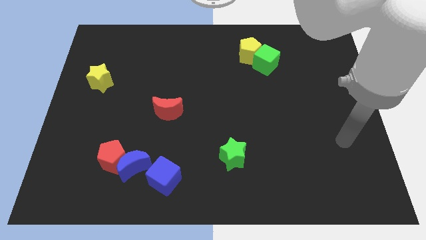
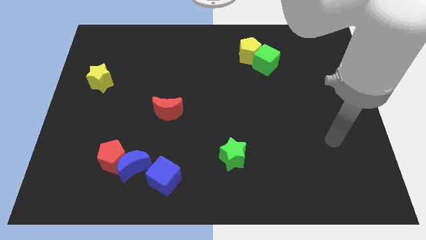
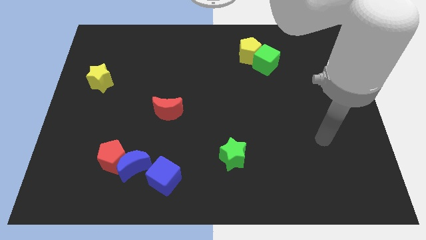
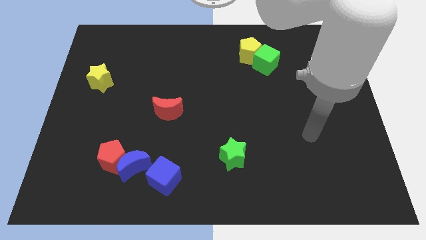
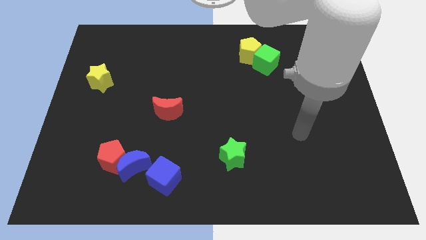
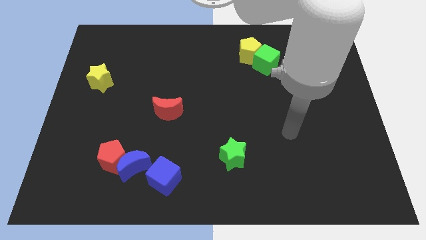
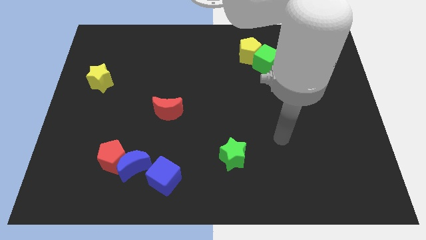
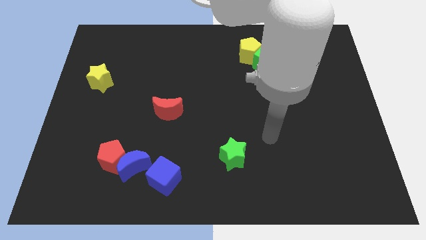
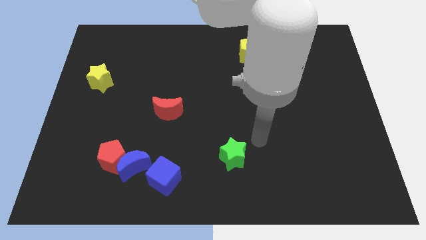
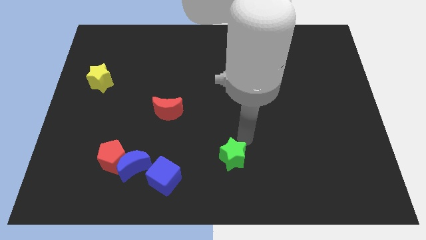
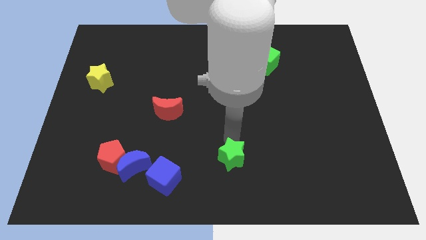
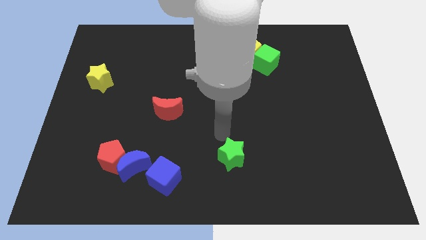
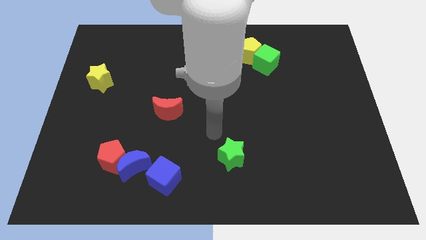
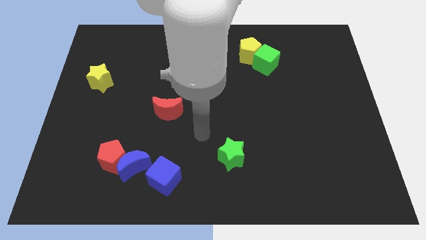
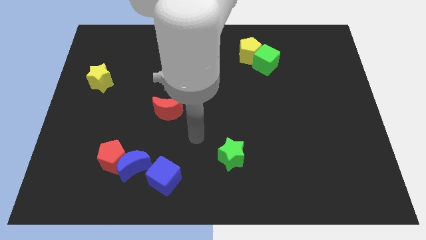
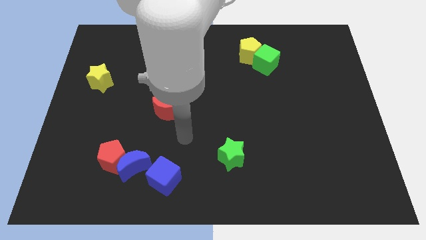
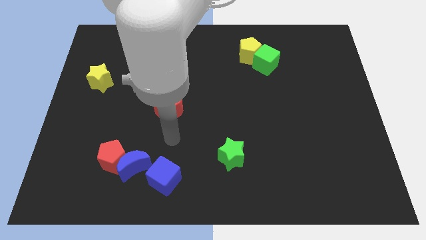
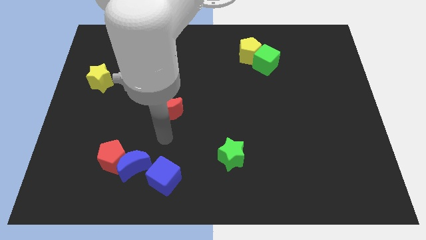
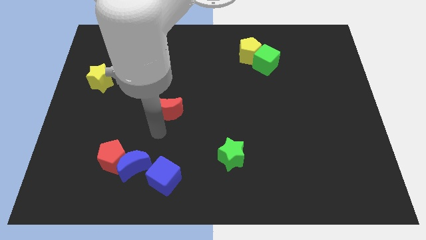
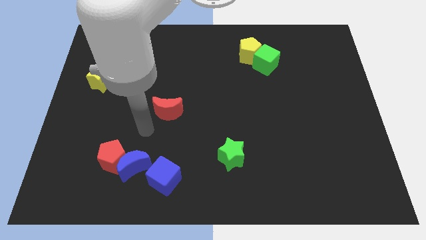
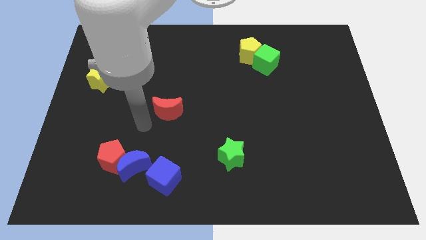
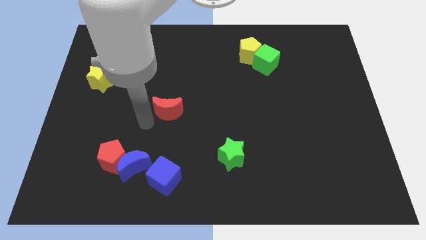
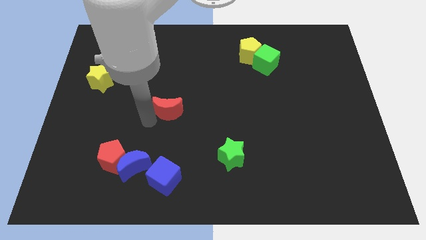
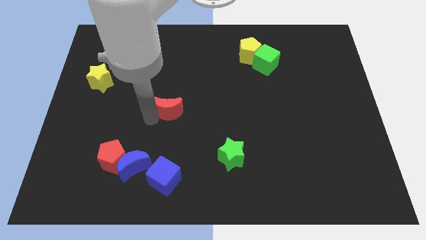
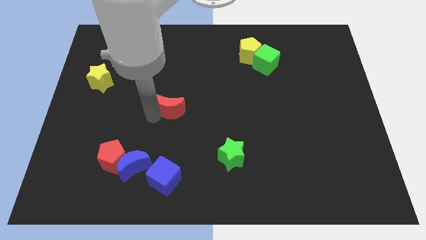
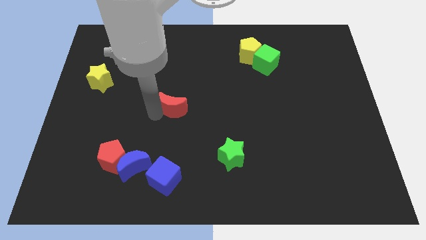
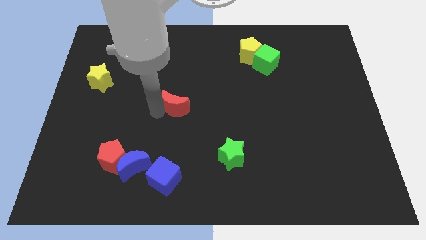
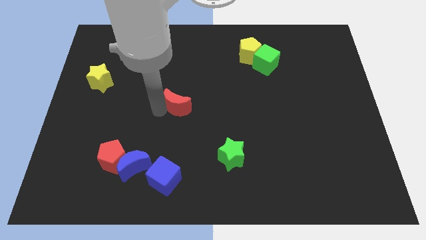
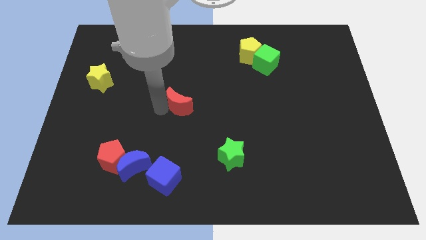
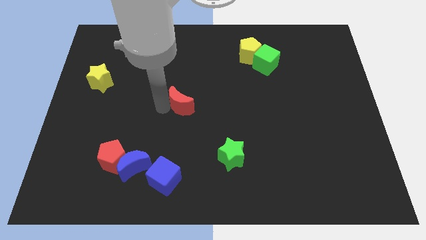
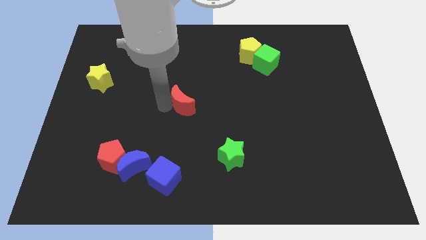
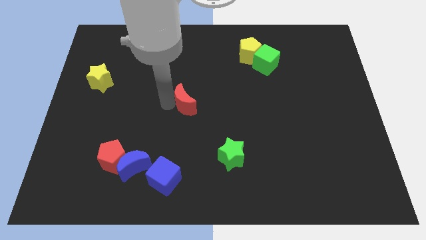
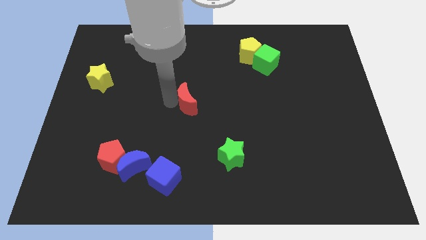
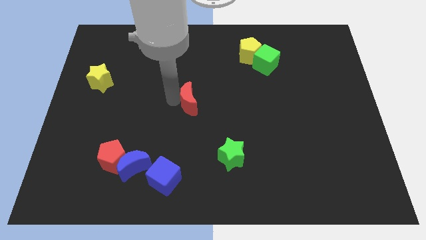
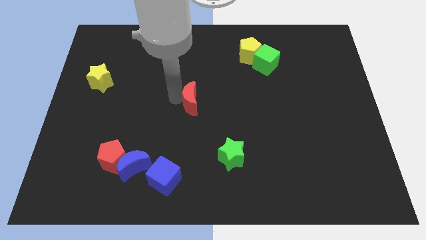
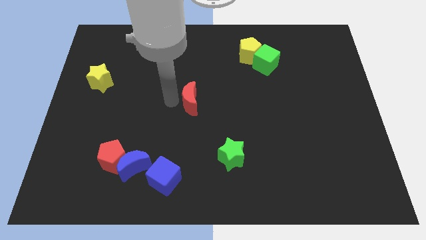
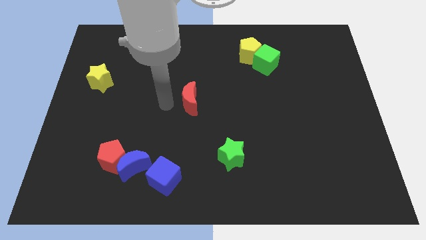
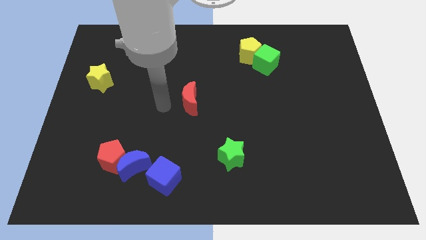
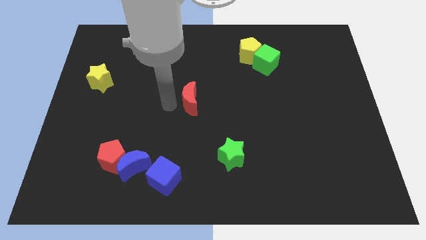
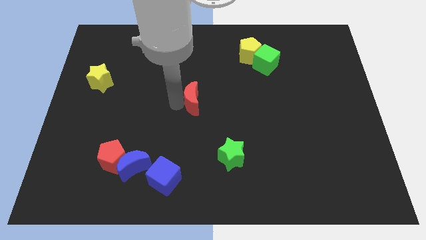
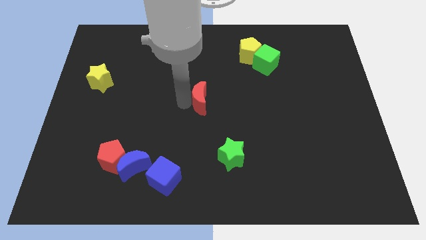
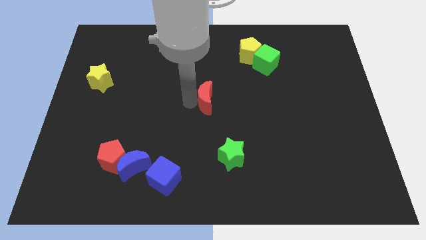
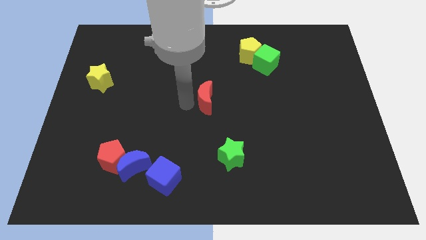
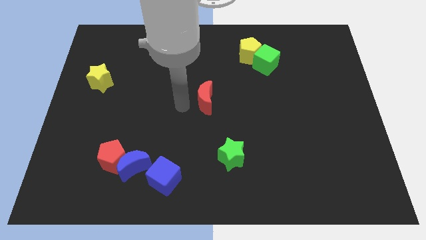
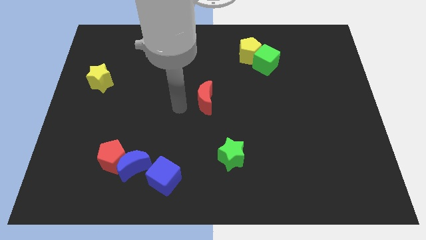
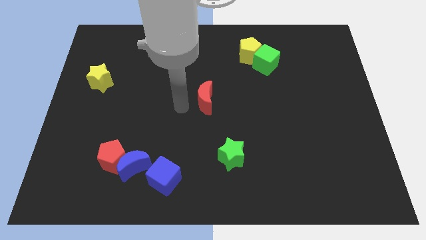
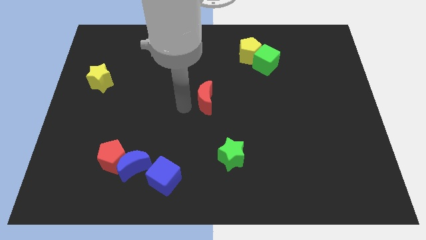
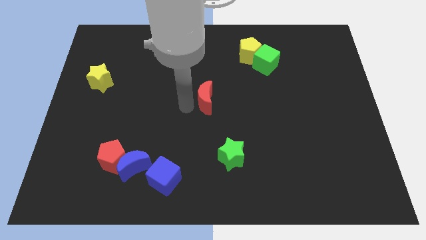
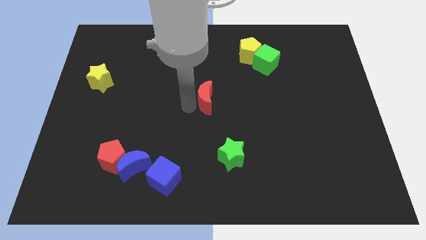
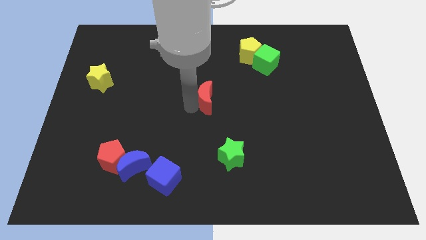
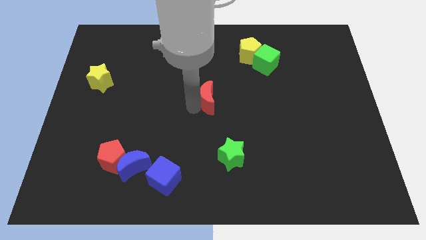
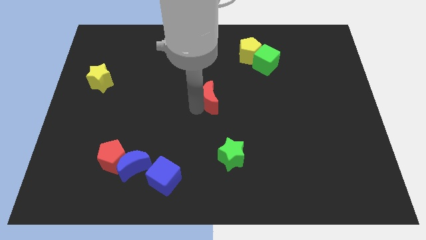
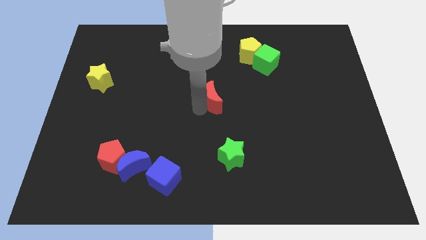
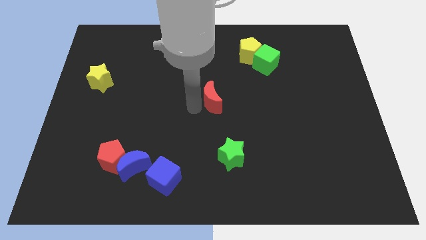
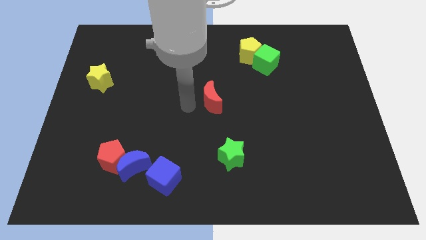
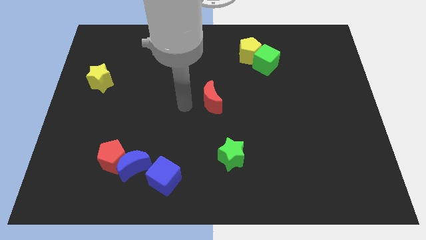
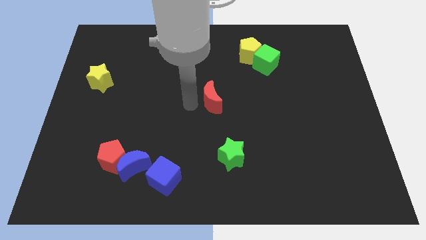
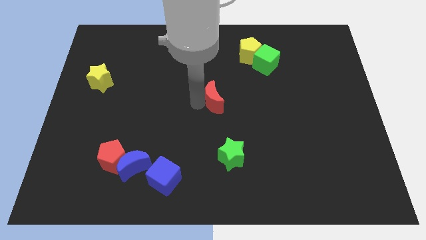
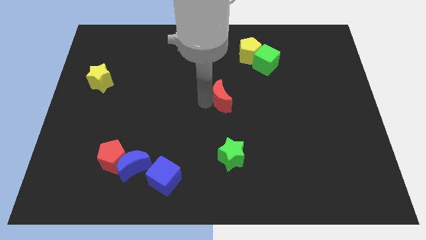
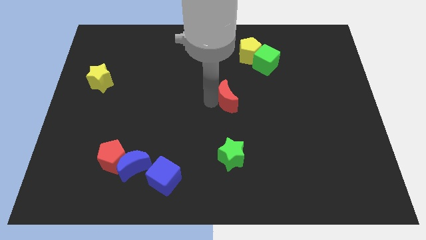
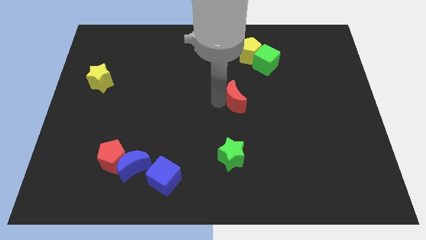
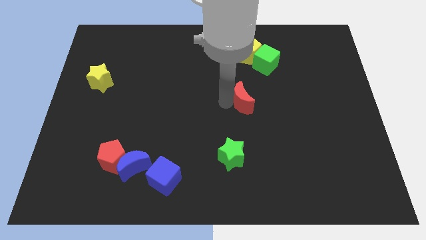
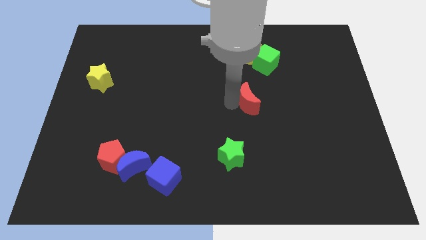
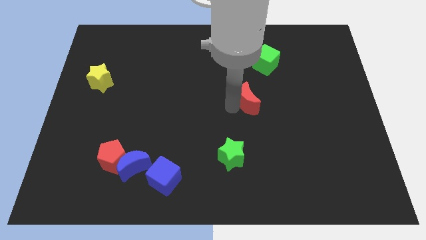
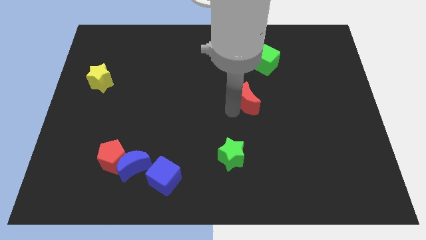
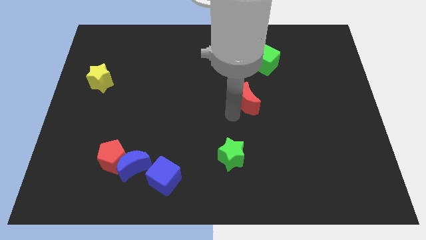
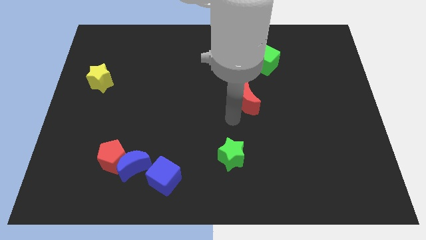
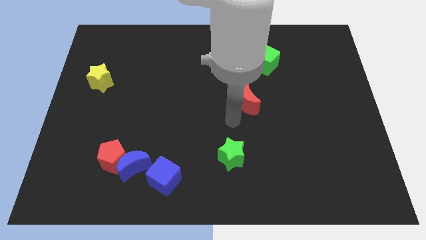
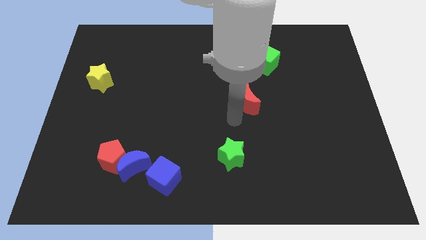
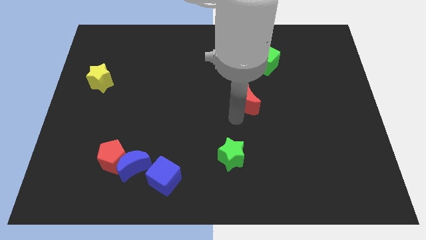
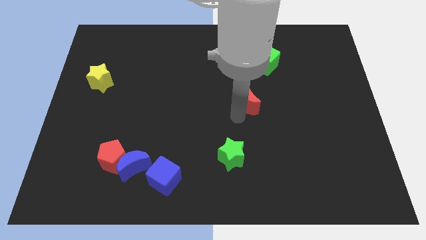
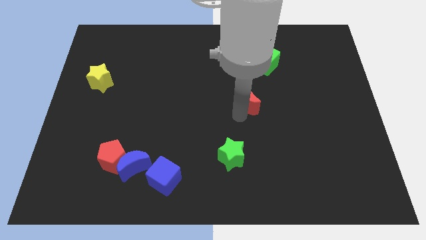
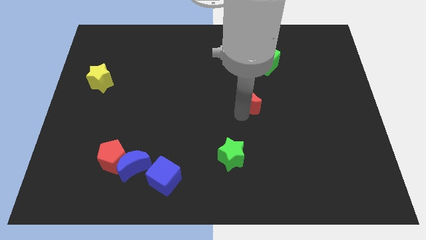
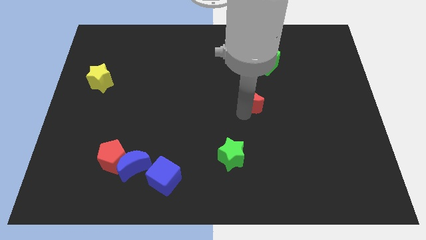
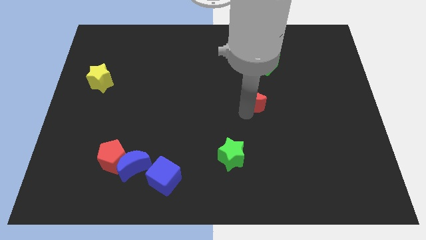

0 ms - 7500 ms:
put the red moon to the bottom side of the green cube

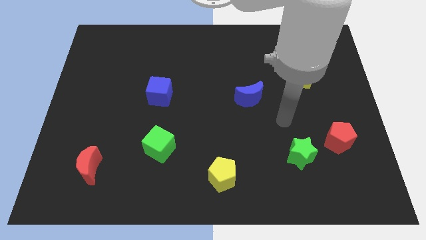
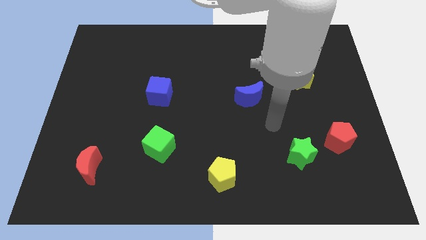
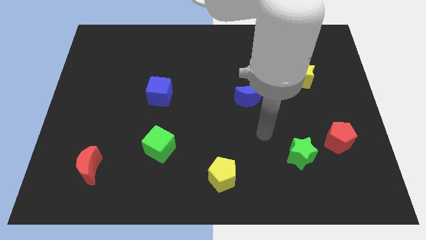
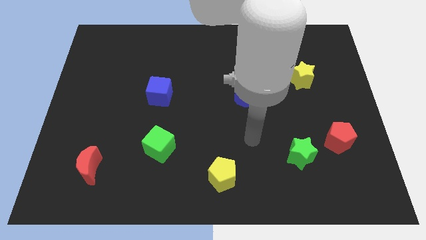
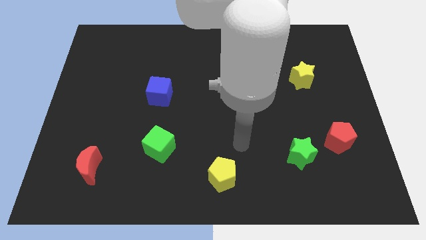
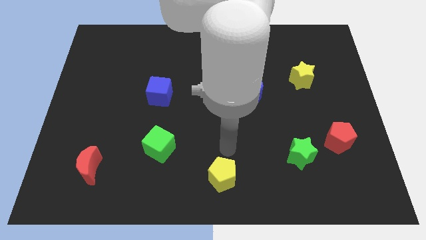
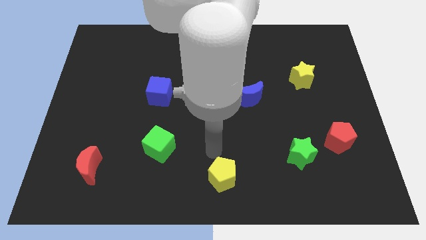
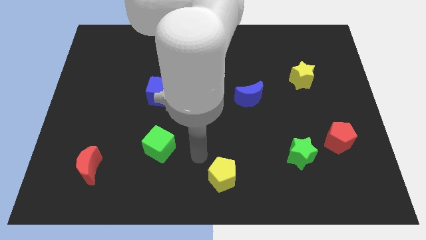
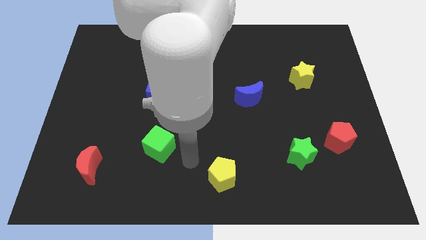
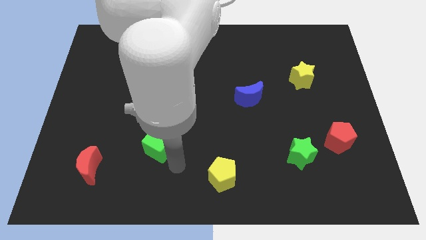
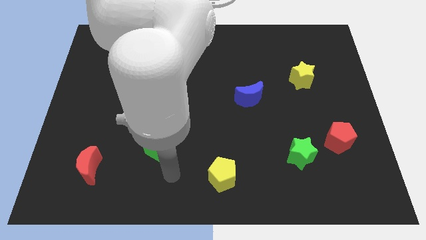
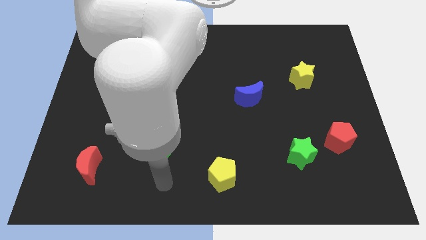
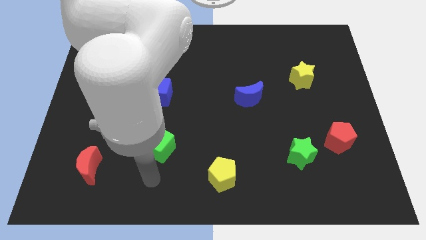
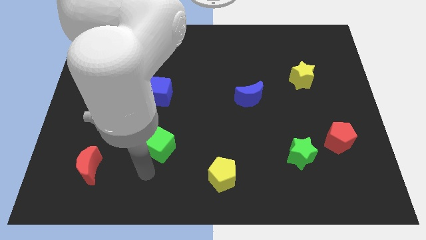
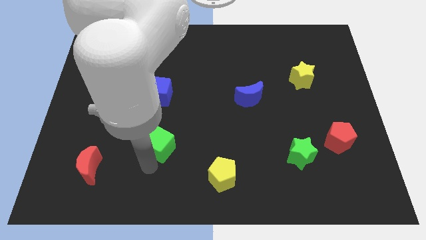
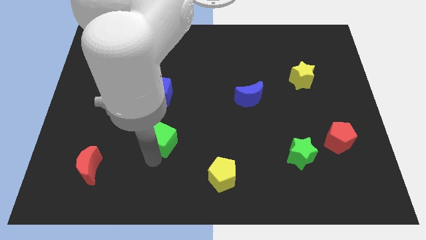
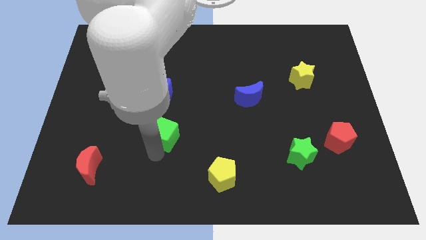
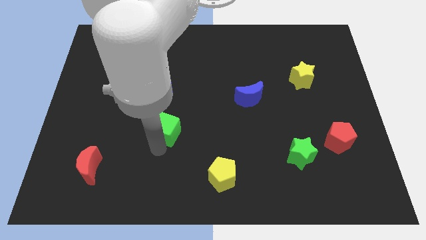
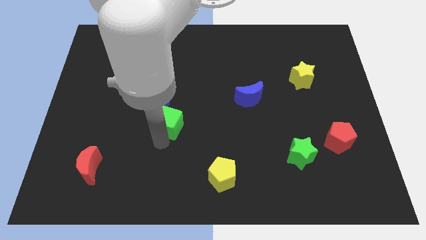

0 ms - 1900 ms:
slide the green cube diagonally down and to the right of the blue cube
